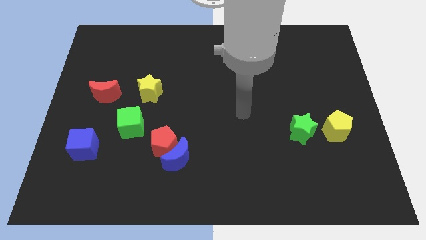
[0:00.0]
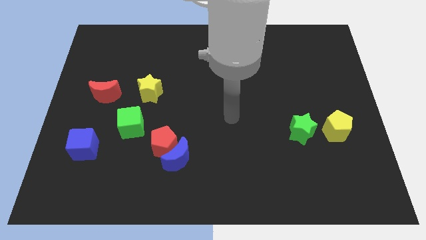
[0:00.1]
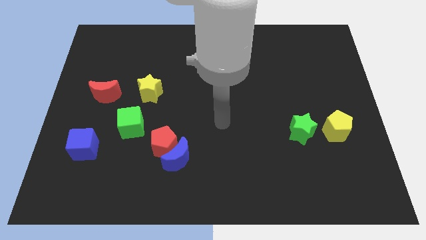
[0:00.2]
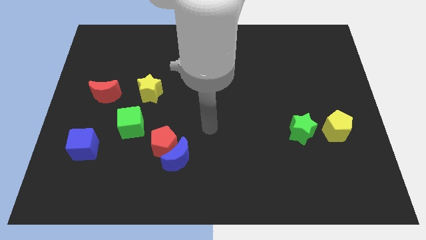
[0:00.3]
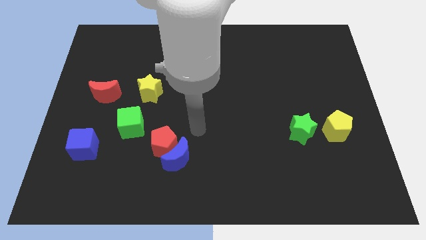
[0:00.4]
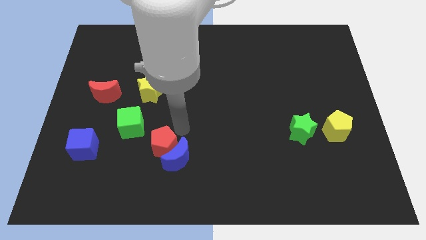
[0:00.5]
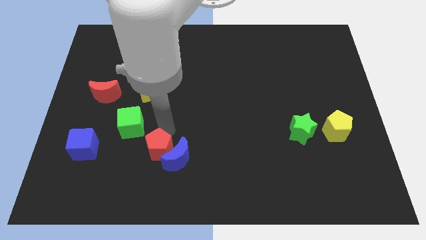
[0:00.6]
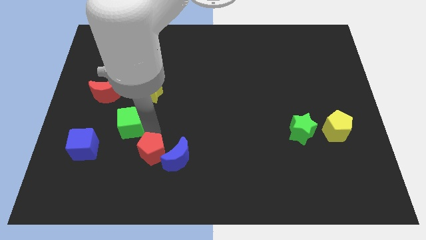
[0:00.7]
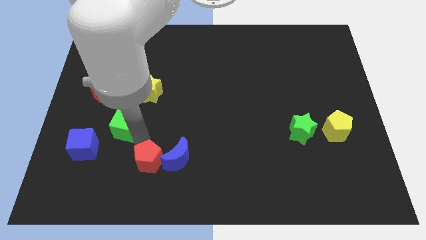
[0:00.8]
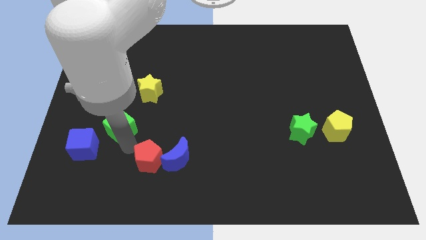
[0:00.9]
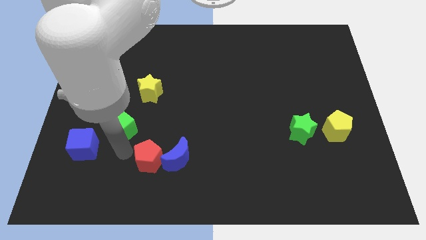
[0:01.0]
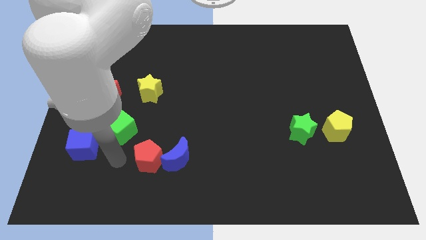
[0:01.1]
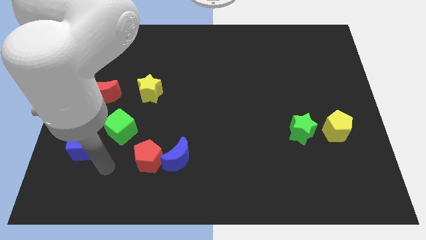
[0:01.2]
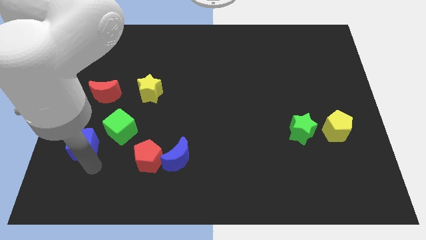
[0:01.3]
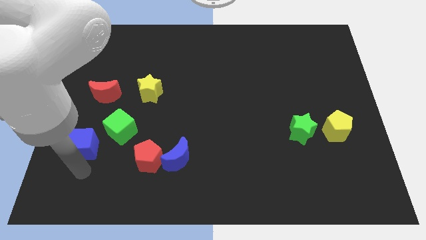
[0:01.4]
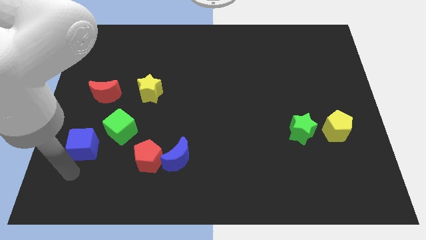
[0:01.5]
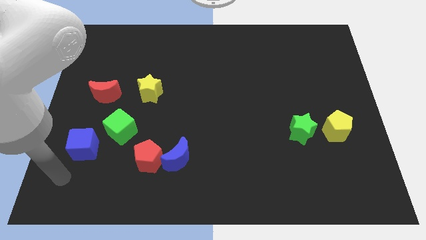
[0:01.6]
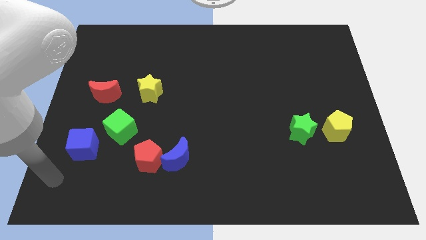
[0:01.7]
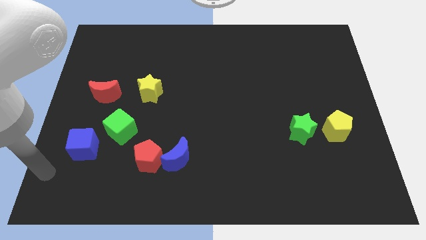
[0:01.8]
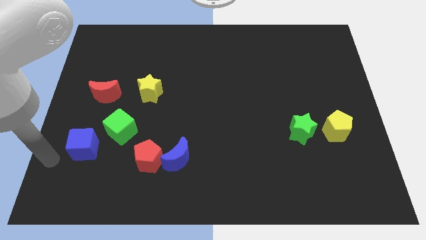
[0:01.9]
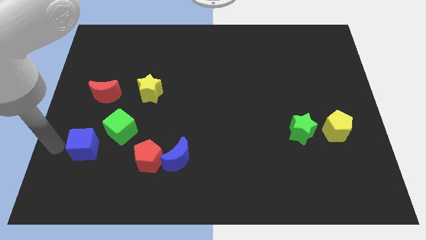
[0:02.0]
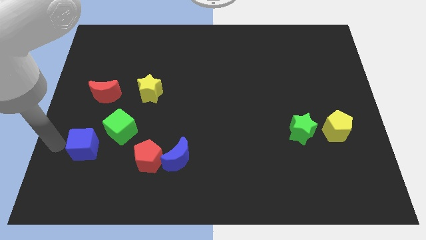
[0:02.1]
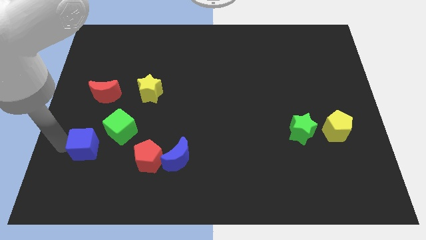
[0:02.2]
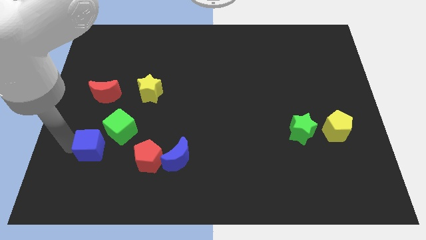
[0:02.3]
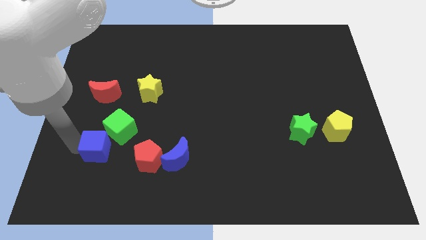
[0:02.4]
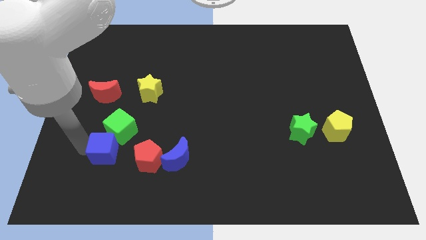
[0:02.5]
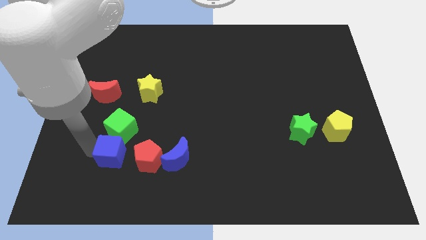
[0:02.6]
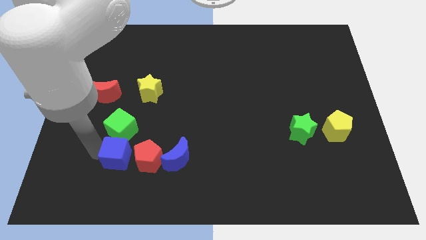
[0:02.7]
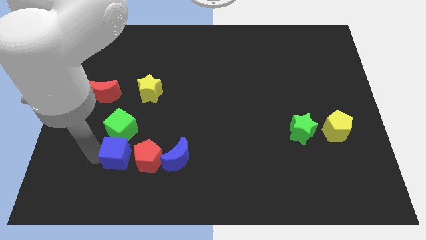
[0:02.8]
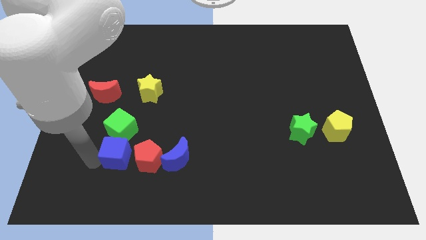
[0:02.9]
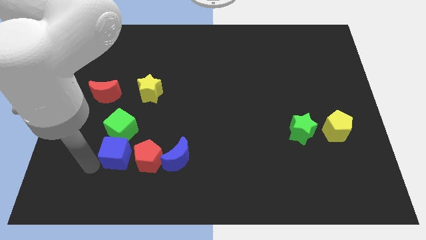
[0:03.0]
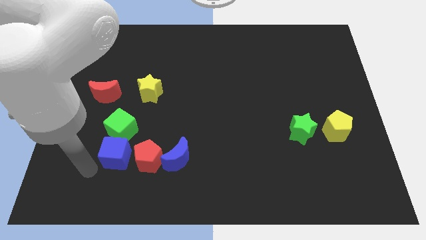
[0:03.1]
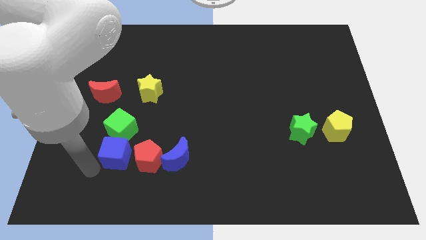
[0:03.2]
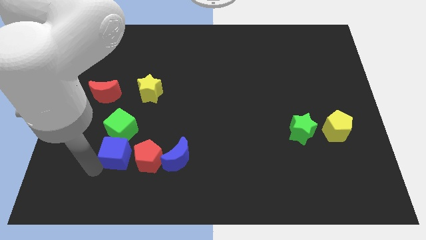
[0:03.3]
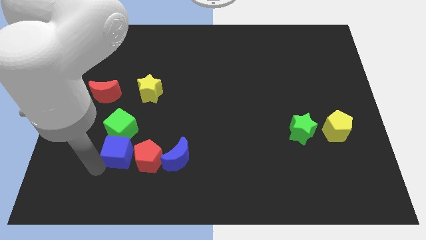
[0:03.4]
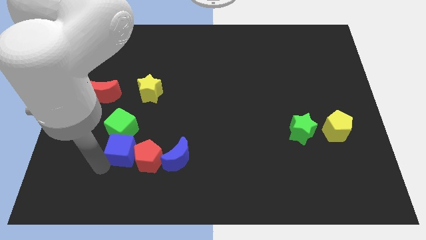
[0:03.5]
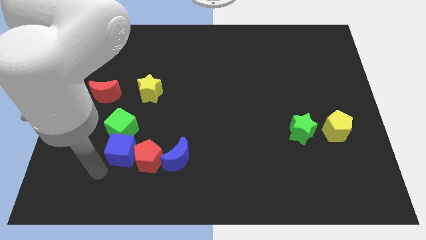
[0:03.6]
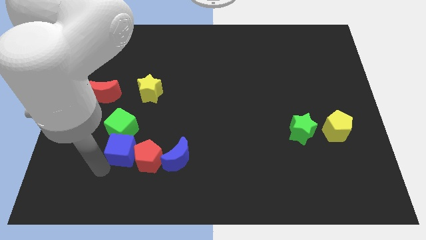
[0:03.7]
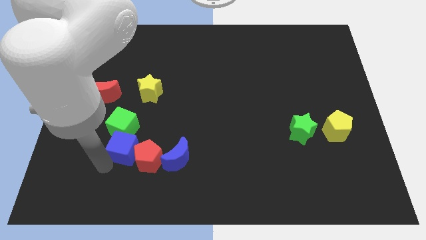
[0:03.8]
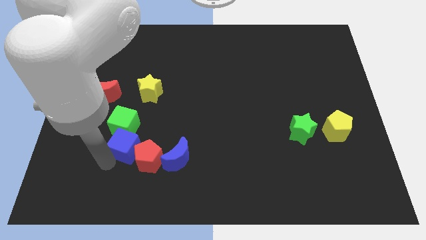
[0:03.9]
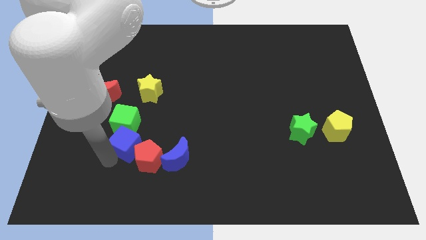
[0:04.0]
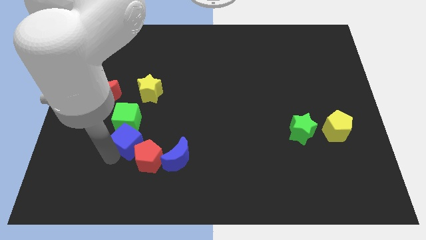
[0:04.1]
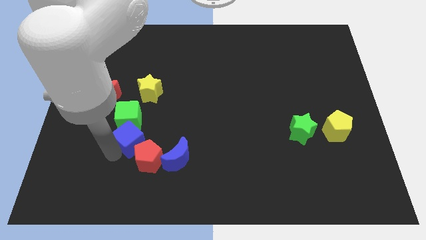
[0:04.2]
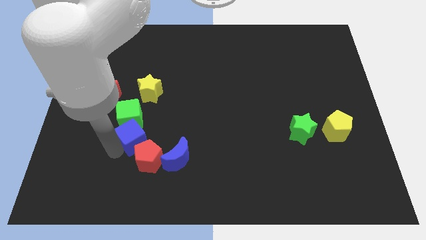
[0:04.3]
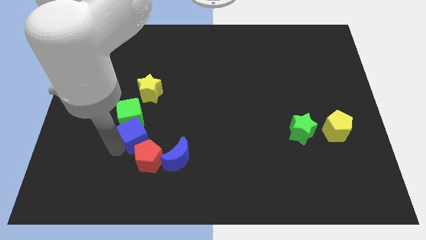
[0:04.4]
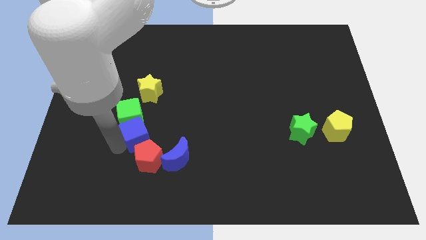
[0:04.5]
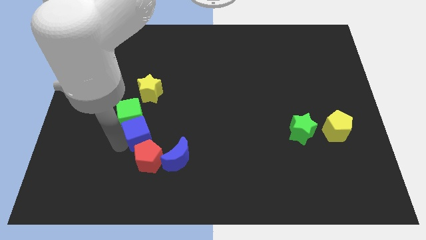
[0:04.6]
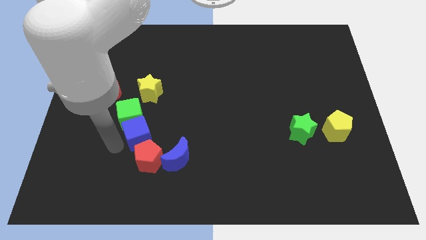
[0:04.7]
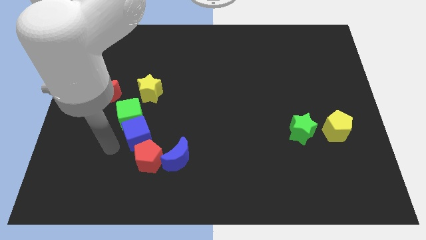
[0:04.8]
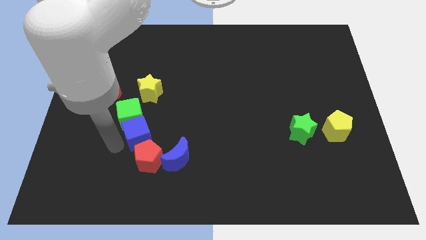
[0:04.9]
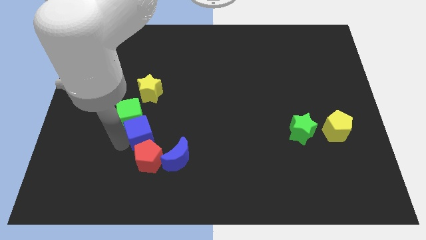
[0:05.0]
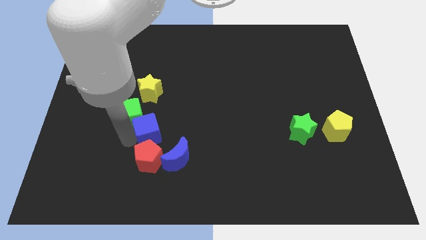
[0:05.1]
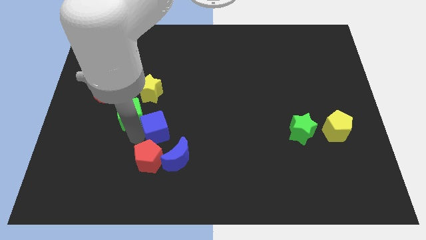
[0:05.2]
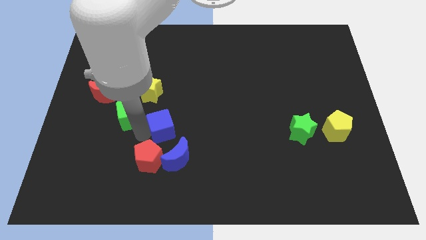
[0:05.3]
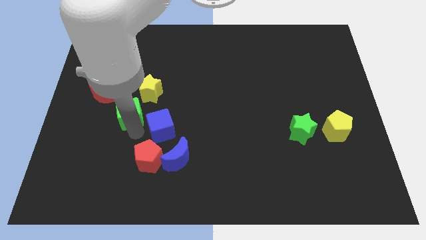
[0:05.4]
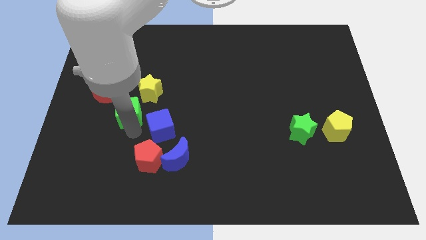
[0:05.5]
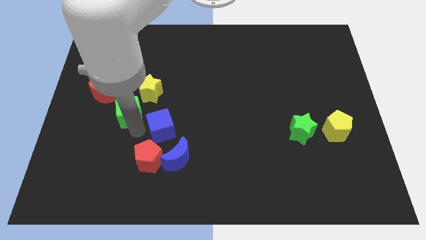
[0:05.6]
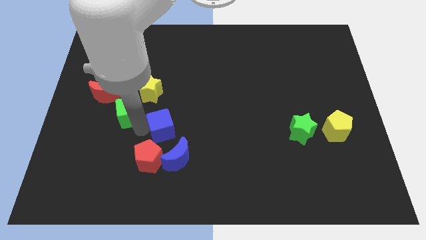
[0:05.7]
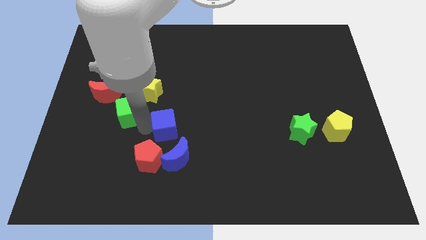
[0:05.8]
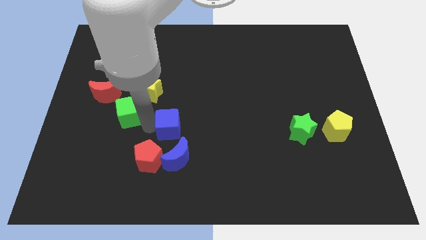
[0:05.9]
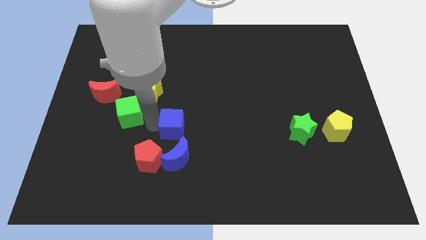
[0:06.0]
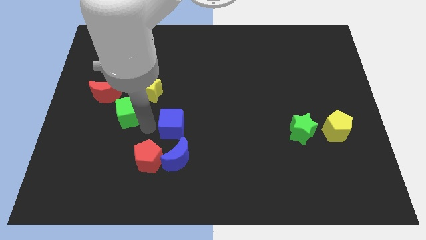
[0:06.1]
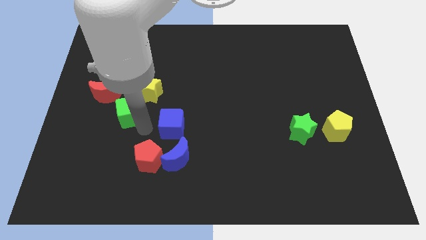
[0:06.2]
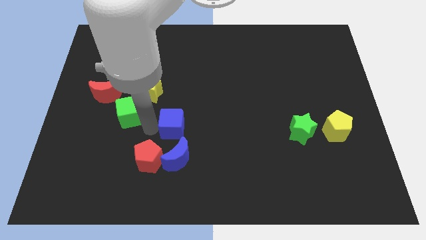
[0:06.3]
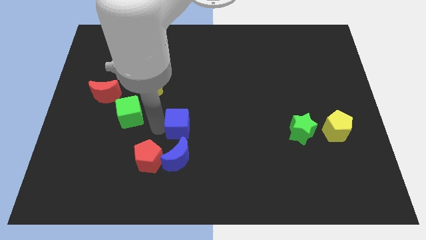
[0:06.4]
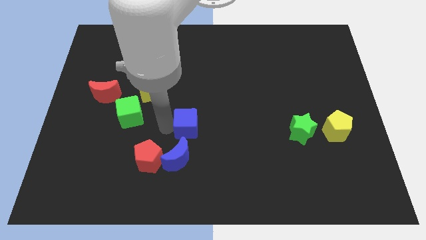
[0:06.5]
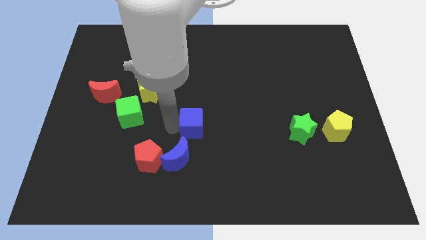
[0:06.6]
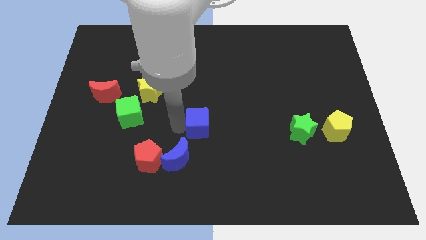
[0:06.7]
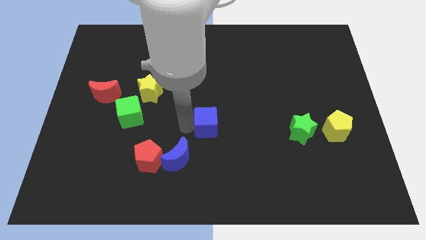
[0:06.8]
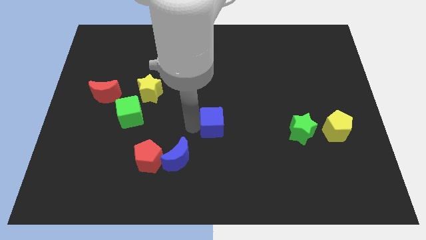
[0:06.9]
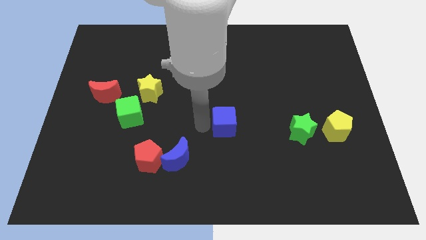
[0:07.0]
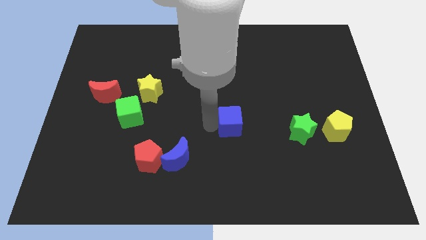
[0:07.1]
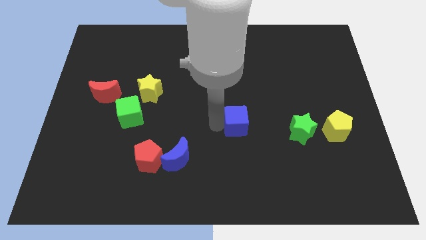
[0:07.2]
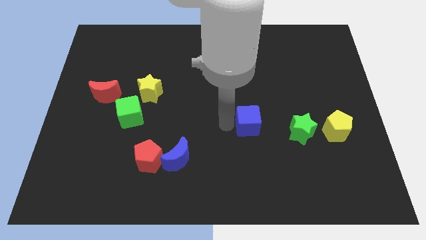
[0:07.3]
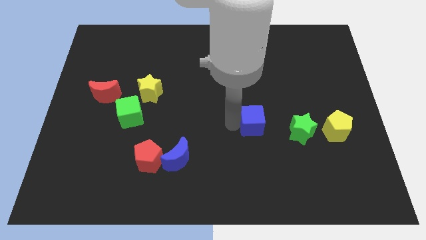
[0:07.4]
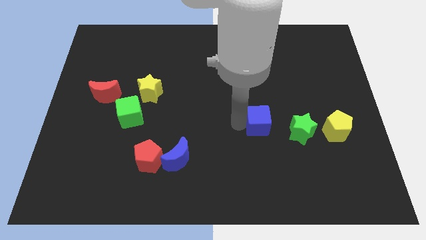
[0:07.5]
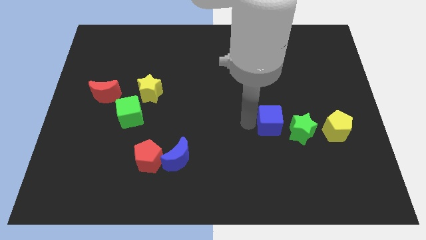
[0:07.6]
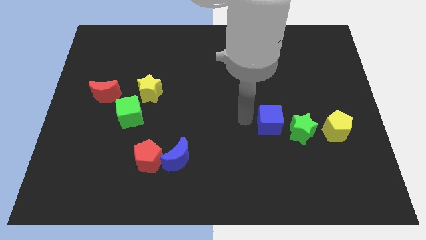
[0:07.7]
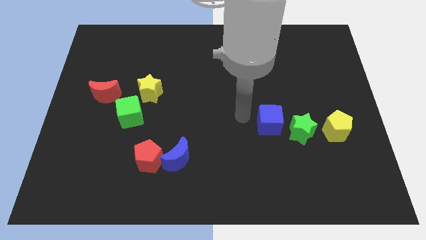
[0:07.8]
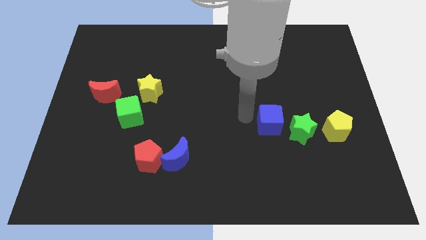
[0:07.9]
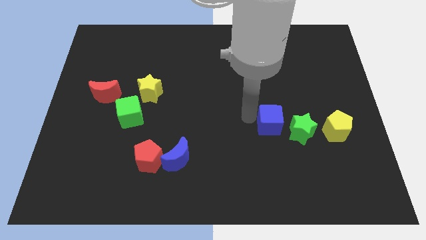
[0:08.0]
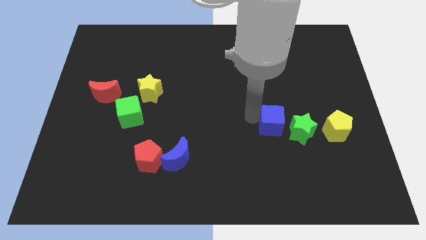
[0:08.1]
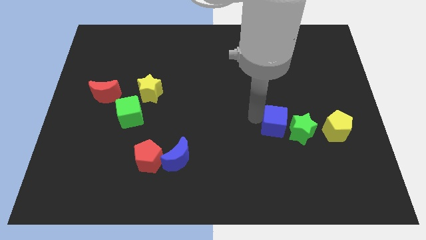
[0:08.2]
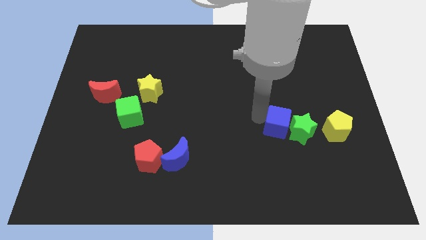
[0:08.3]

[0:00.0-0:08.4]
put the blue cube next to the green star
